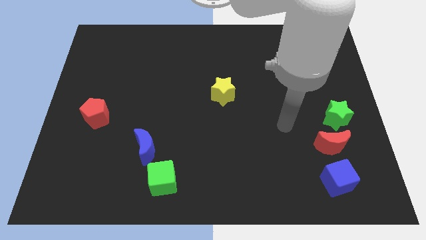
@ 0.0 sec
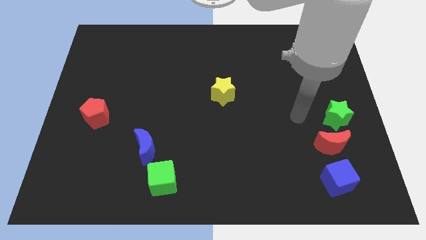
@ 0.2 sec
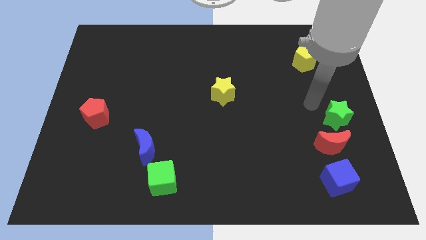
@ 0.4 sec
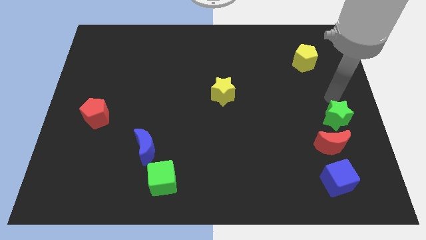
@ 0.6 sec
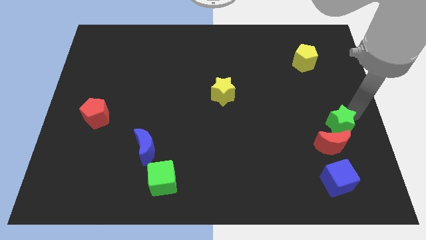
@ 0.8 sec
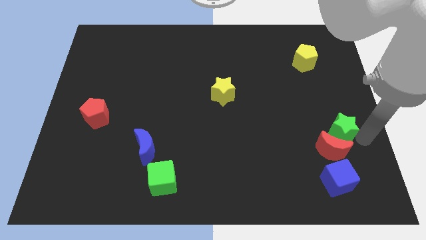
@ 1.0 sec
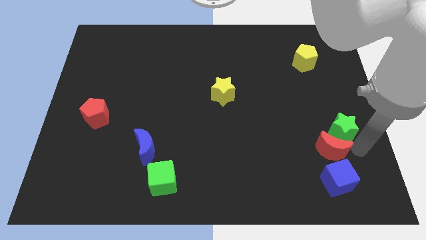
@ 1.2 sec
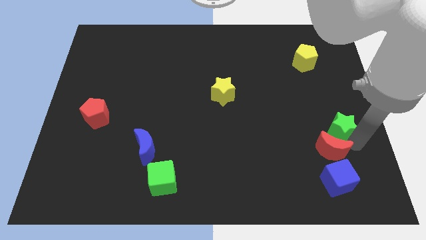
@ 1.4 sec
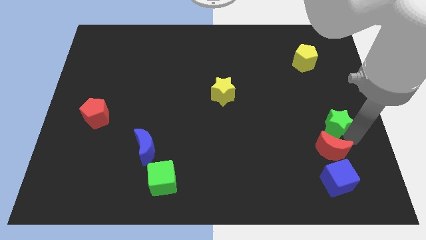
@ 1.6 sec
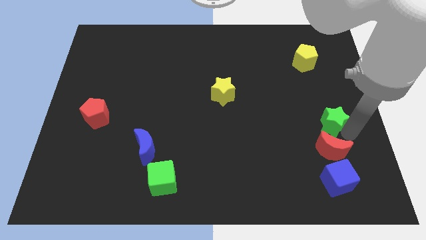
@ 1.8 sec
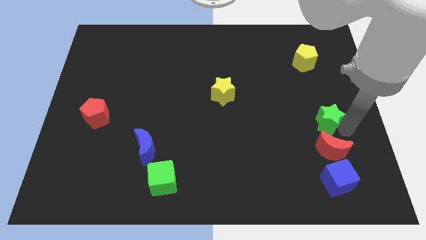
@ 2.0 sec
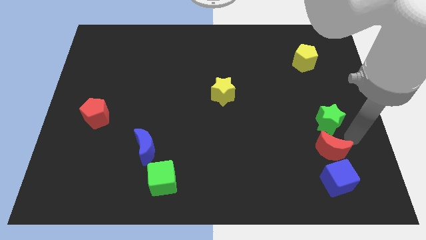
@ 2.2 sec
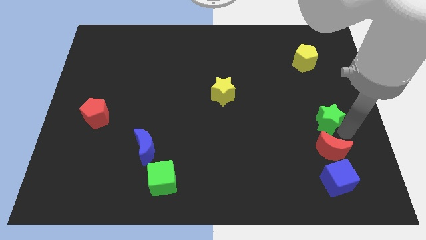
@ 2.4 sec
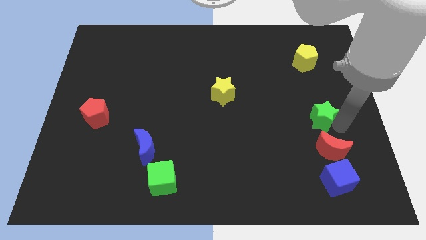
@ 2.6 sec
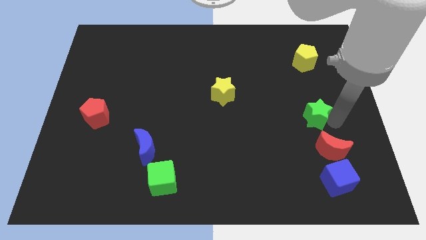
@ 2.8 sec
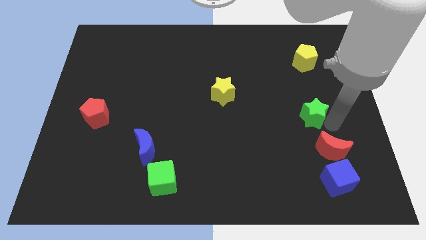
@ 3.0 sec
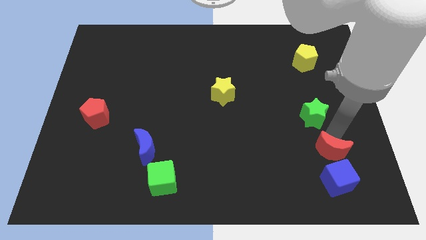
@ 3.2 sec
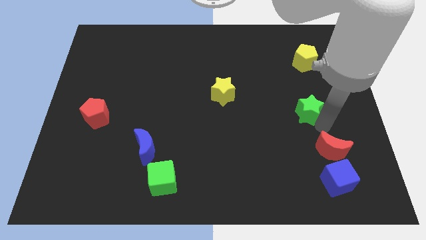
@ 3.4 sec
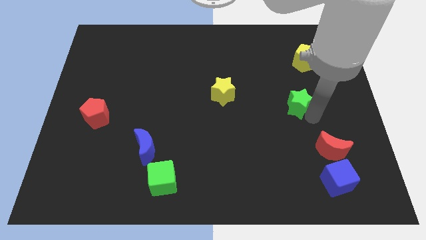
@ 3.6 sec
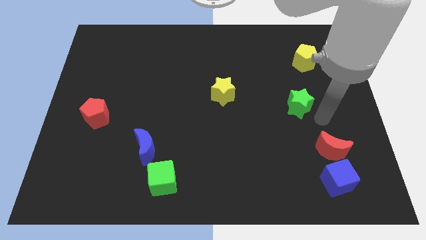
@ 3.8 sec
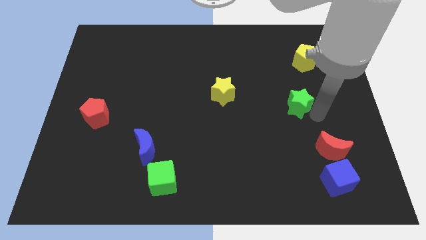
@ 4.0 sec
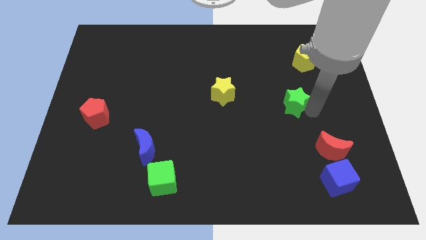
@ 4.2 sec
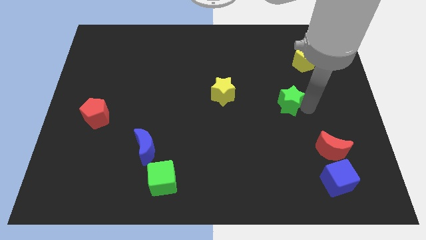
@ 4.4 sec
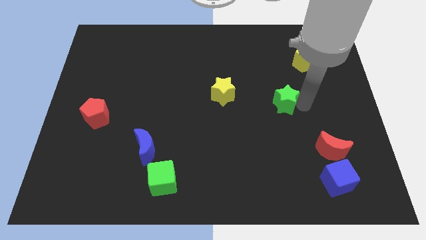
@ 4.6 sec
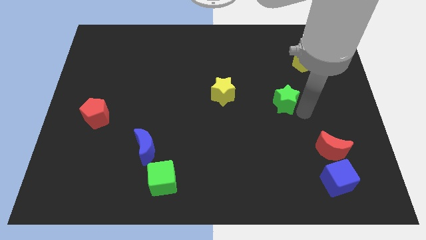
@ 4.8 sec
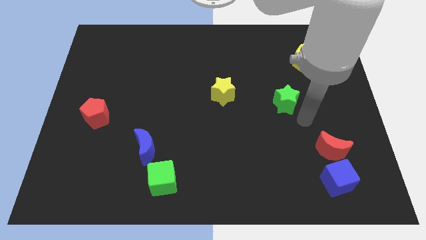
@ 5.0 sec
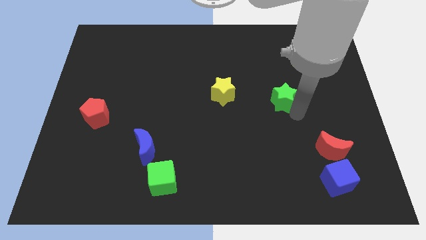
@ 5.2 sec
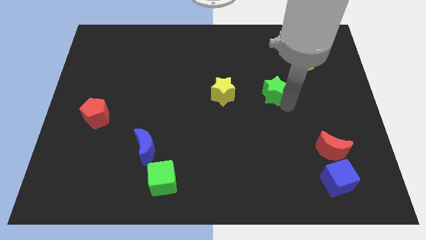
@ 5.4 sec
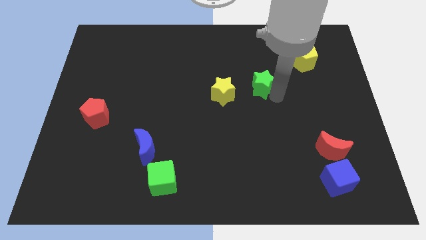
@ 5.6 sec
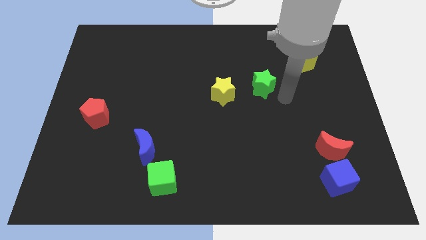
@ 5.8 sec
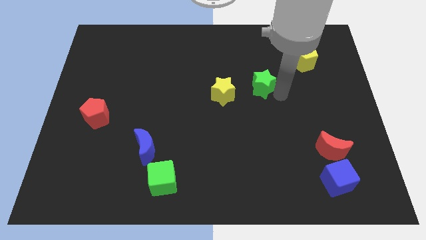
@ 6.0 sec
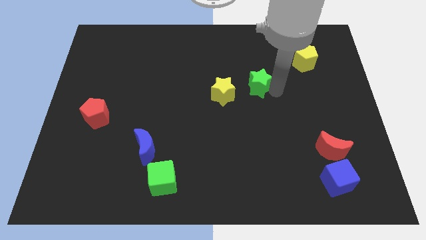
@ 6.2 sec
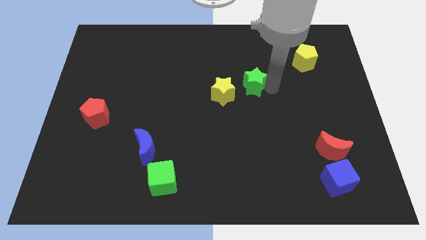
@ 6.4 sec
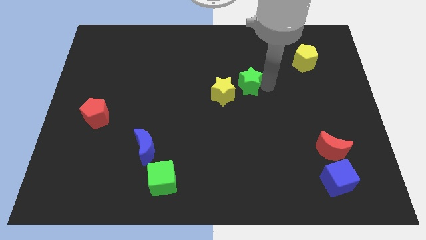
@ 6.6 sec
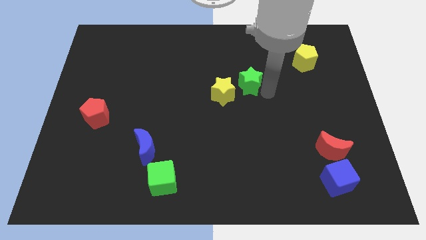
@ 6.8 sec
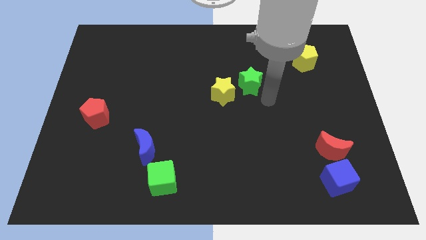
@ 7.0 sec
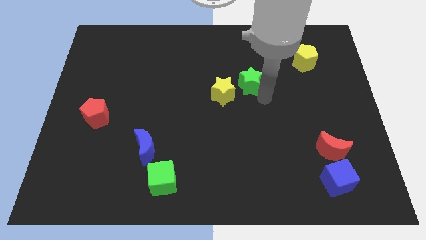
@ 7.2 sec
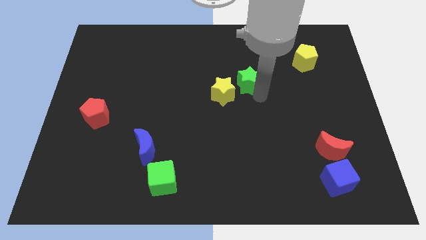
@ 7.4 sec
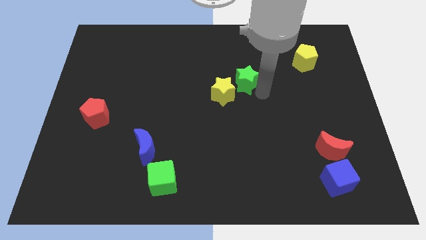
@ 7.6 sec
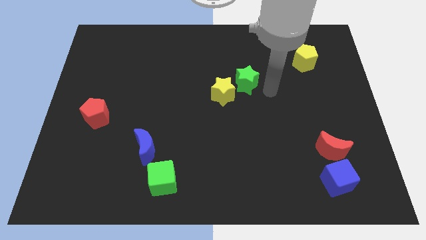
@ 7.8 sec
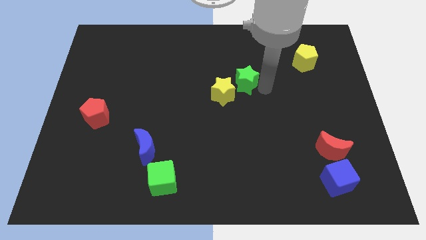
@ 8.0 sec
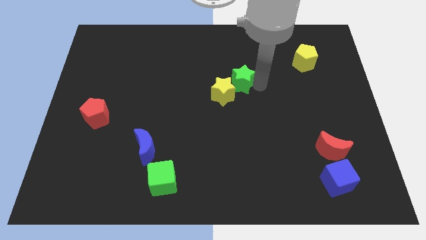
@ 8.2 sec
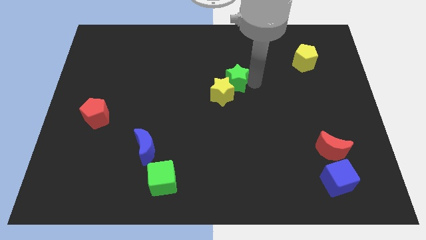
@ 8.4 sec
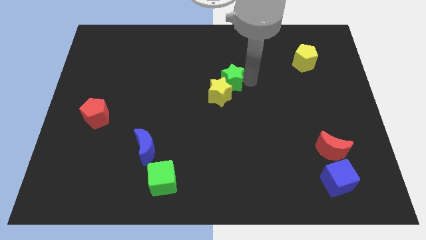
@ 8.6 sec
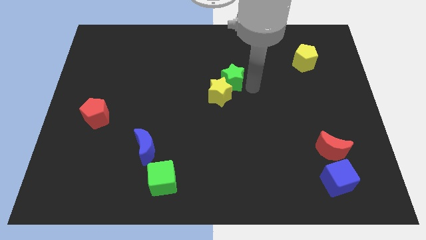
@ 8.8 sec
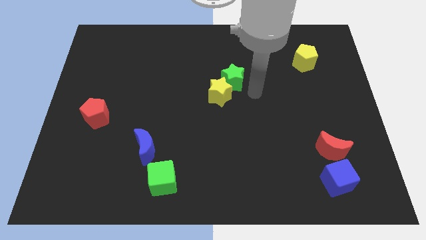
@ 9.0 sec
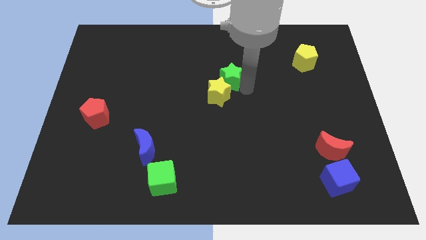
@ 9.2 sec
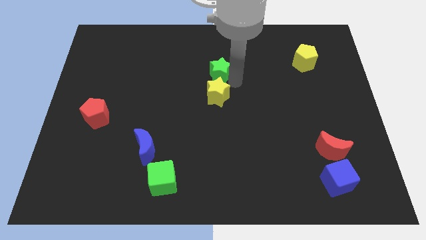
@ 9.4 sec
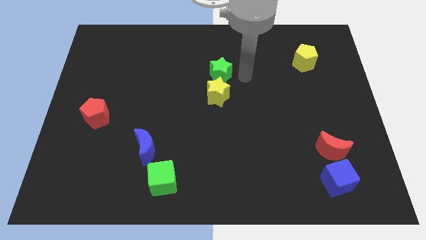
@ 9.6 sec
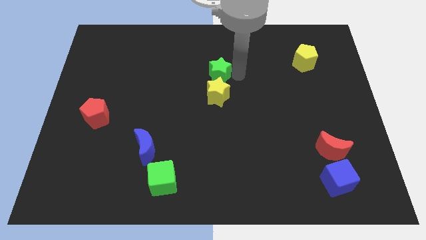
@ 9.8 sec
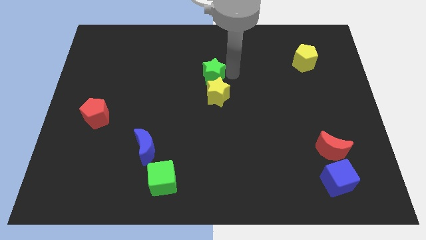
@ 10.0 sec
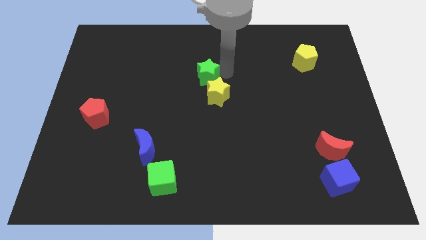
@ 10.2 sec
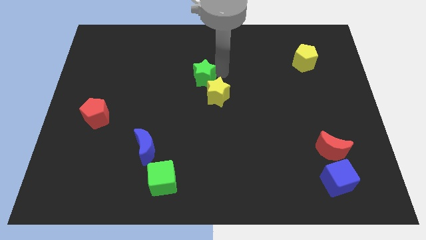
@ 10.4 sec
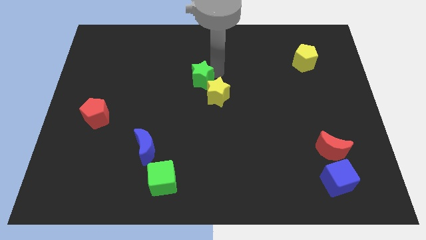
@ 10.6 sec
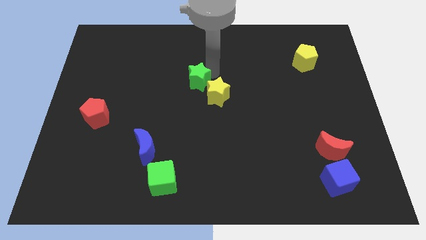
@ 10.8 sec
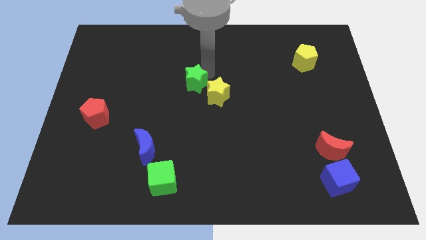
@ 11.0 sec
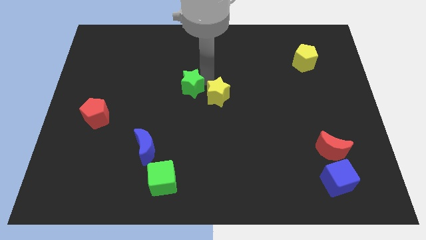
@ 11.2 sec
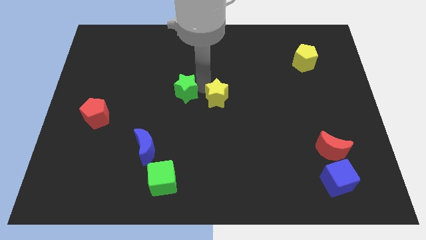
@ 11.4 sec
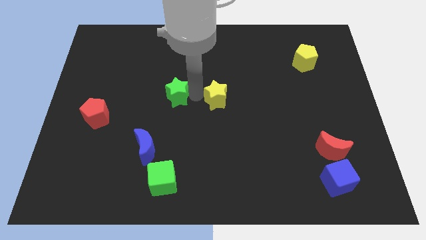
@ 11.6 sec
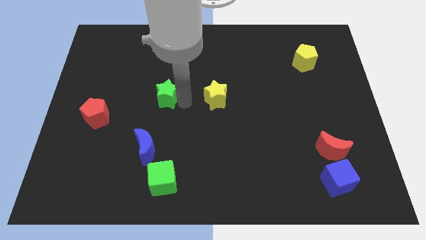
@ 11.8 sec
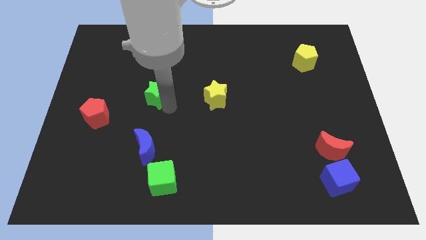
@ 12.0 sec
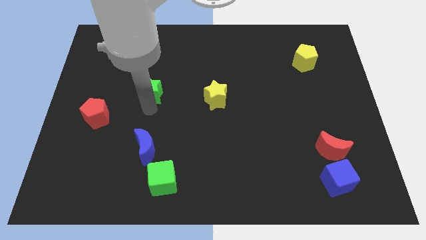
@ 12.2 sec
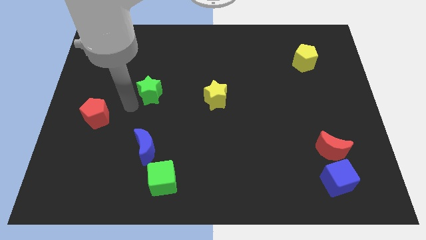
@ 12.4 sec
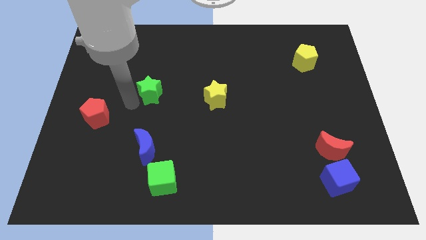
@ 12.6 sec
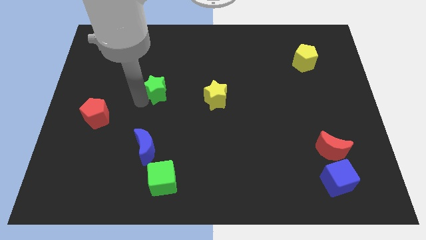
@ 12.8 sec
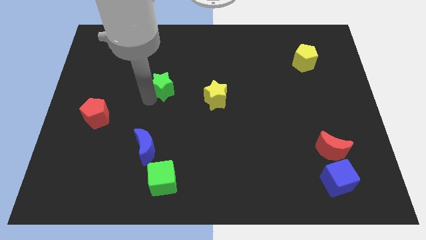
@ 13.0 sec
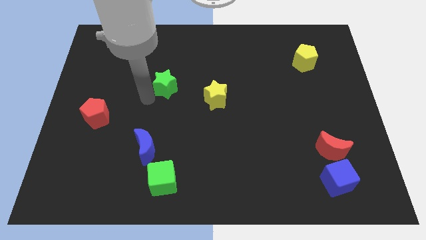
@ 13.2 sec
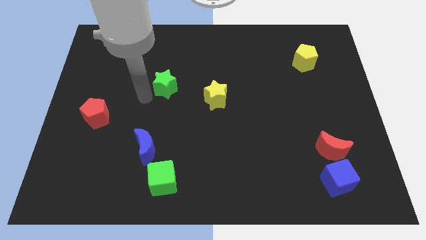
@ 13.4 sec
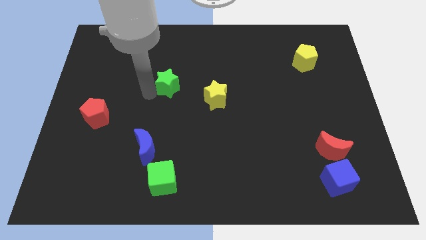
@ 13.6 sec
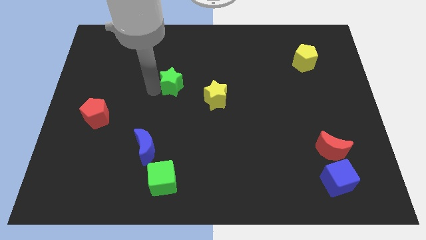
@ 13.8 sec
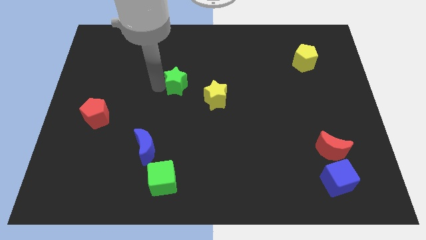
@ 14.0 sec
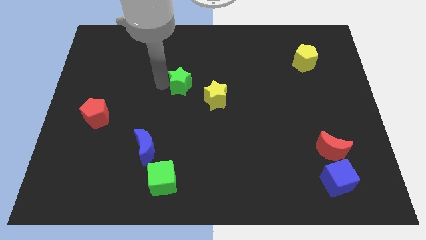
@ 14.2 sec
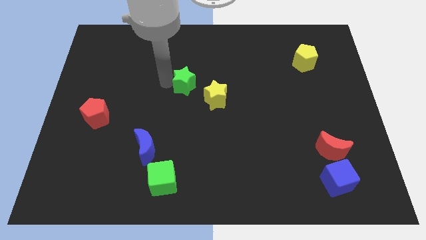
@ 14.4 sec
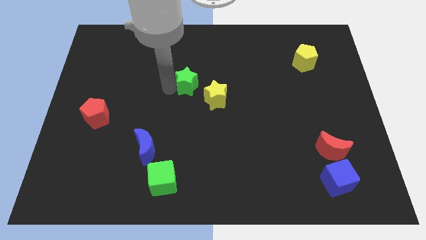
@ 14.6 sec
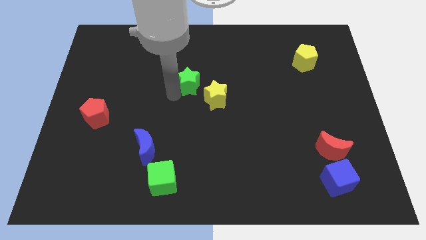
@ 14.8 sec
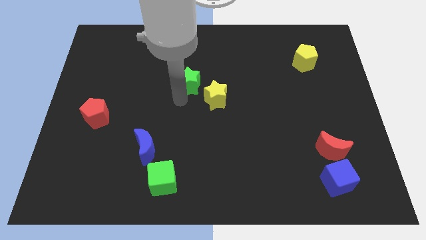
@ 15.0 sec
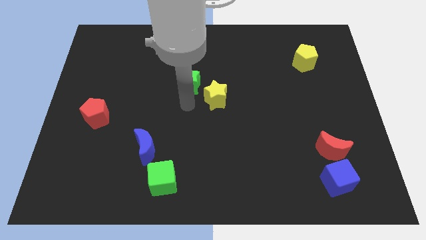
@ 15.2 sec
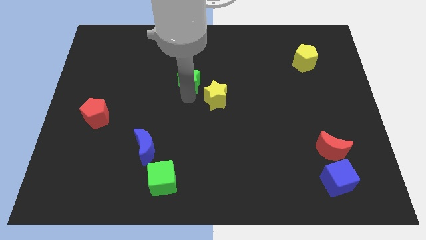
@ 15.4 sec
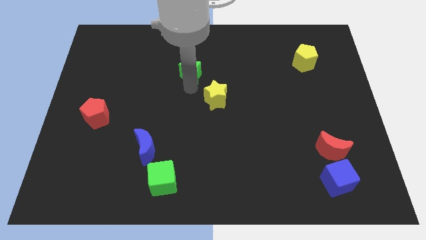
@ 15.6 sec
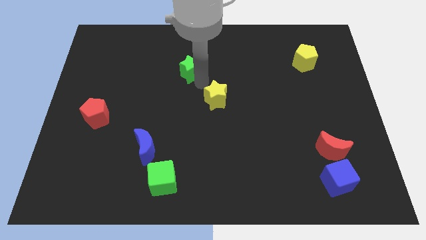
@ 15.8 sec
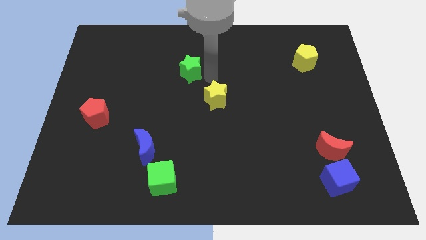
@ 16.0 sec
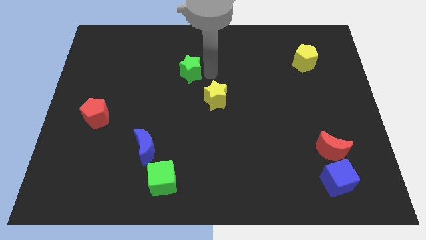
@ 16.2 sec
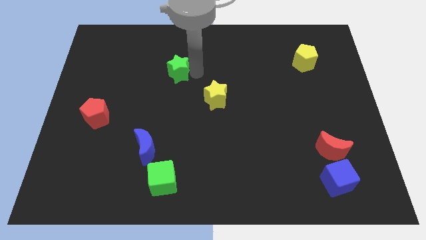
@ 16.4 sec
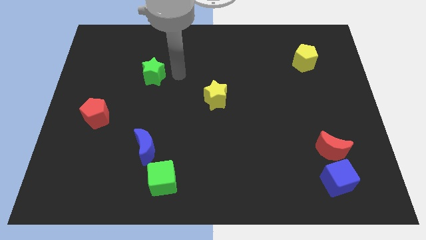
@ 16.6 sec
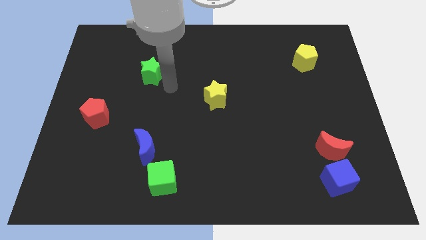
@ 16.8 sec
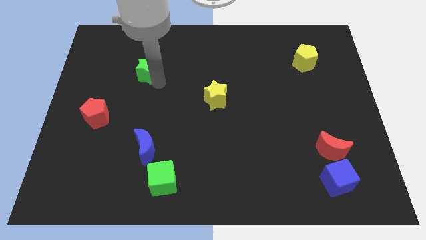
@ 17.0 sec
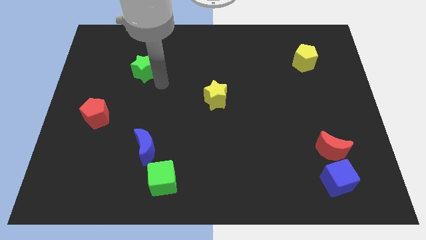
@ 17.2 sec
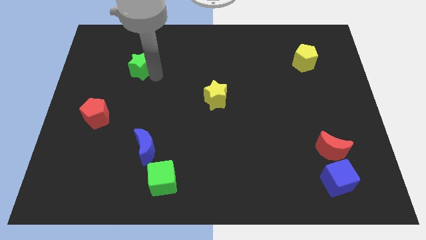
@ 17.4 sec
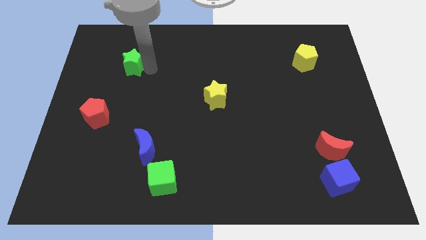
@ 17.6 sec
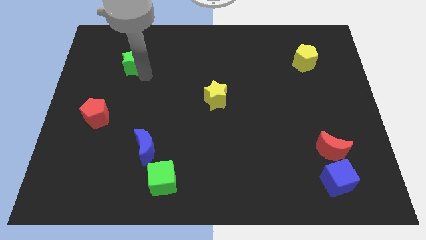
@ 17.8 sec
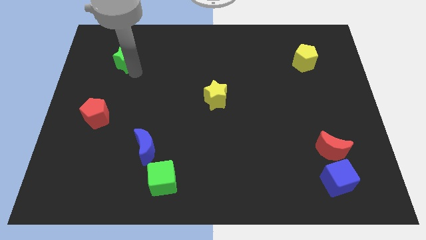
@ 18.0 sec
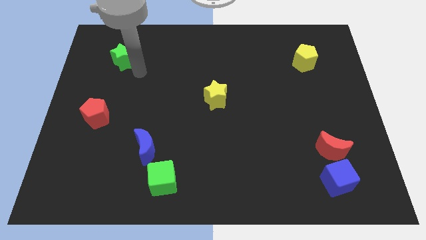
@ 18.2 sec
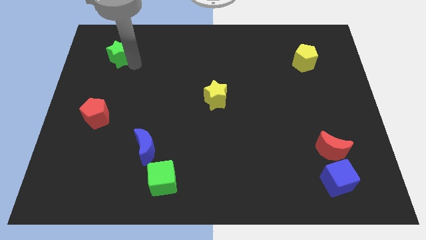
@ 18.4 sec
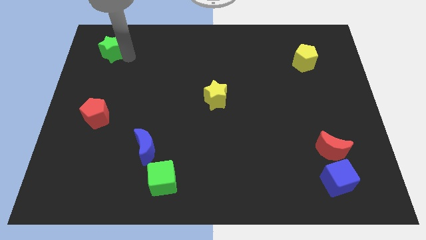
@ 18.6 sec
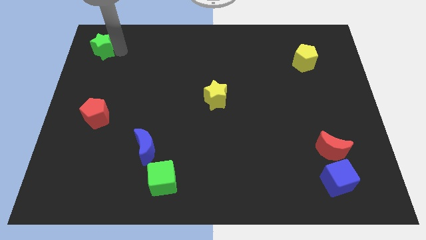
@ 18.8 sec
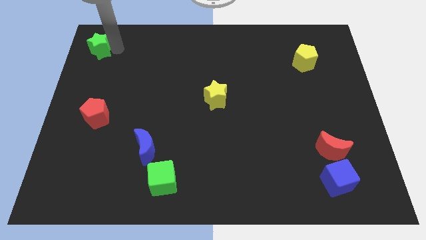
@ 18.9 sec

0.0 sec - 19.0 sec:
put the green star to the top left of the board
